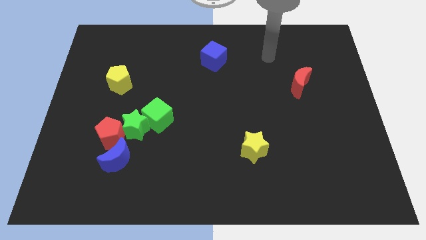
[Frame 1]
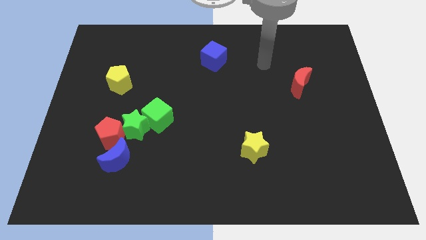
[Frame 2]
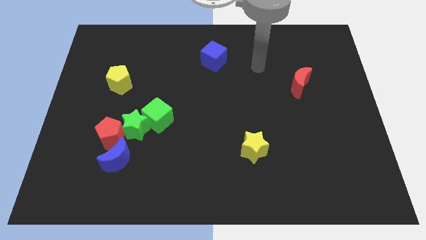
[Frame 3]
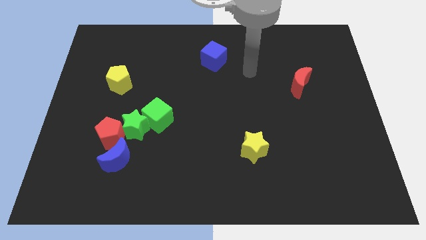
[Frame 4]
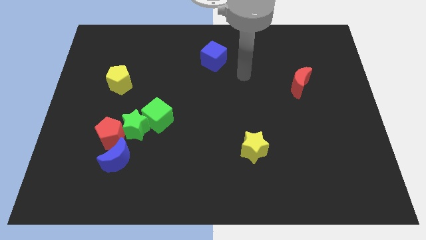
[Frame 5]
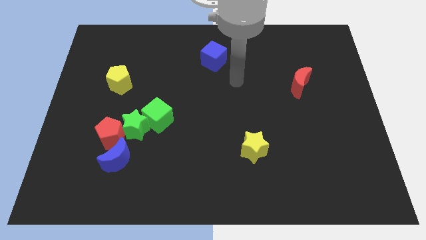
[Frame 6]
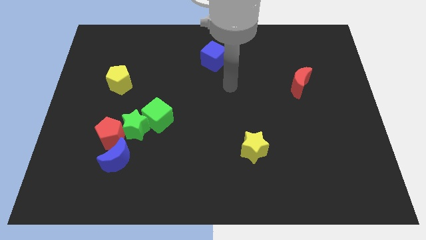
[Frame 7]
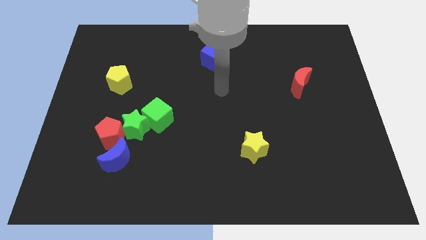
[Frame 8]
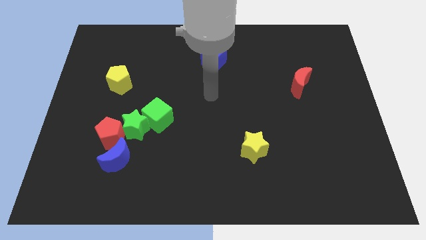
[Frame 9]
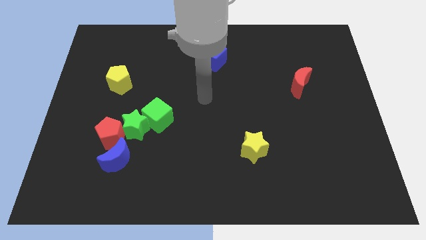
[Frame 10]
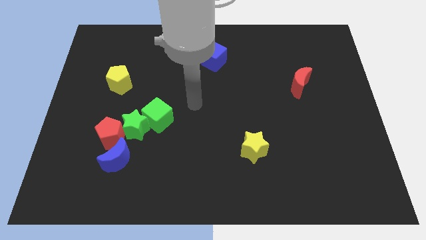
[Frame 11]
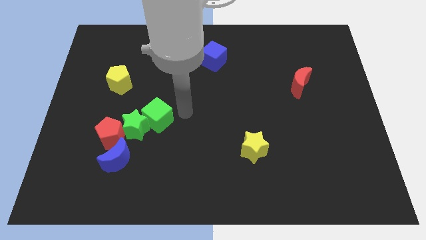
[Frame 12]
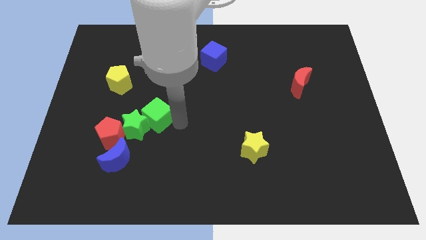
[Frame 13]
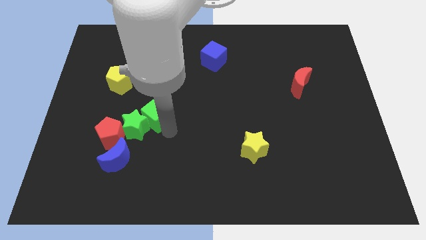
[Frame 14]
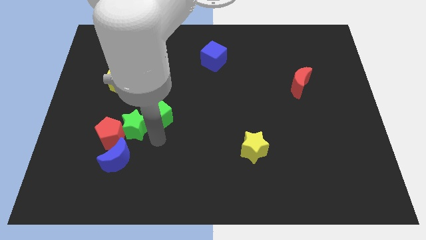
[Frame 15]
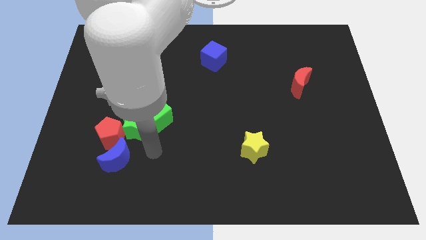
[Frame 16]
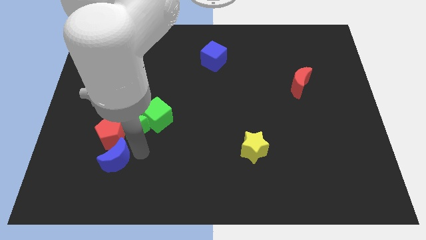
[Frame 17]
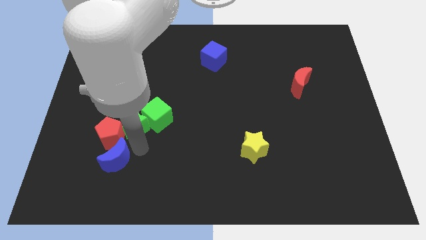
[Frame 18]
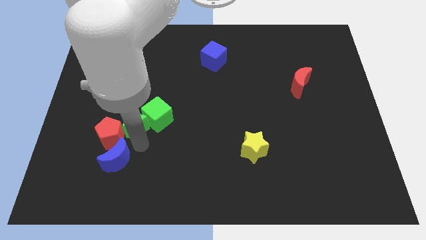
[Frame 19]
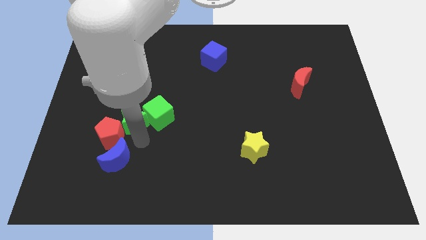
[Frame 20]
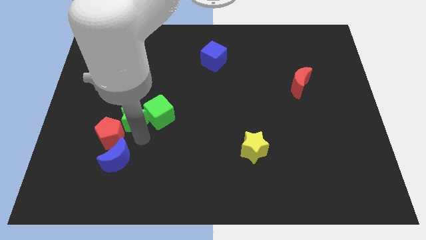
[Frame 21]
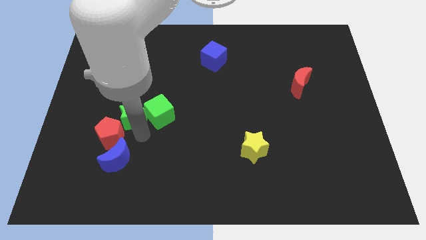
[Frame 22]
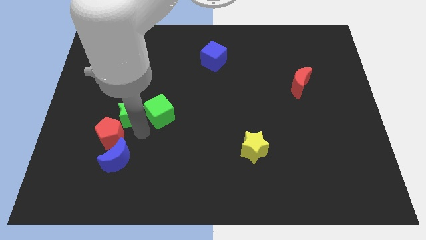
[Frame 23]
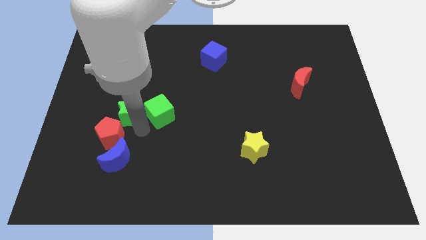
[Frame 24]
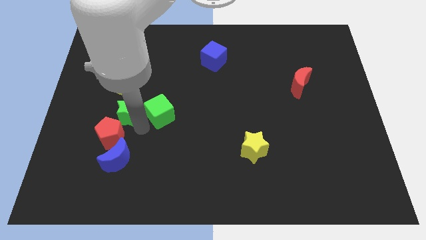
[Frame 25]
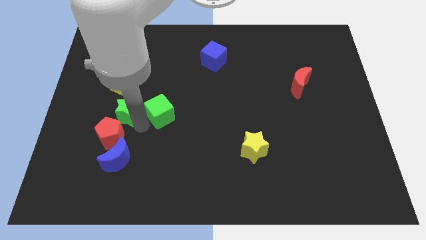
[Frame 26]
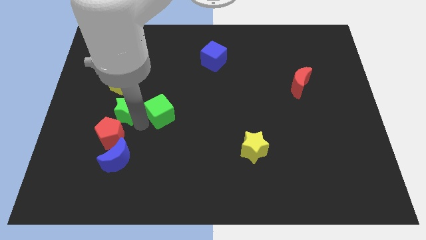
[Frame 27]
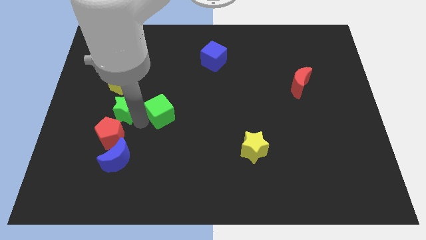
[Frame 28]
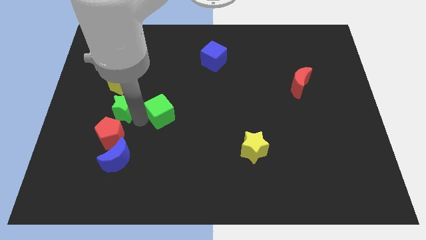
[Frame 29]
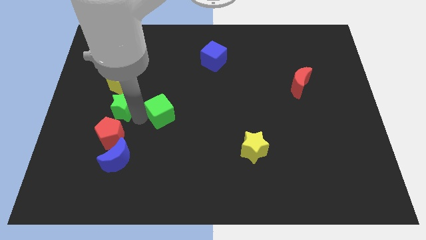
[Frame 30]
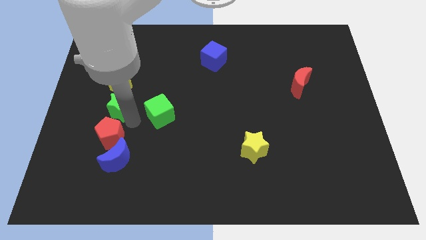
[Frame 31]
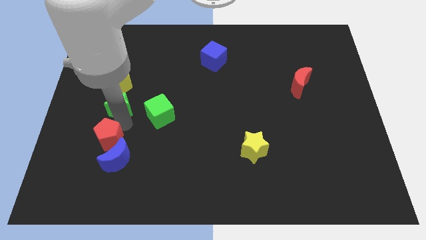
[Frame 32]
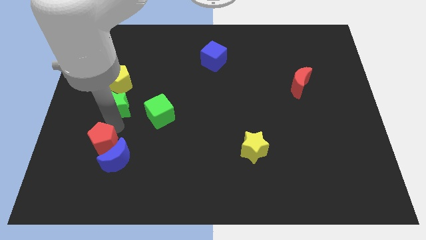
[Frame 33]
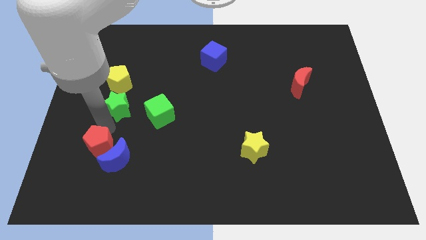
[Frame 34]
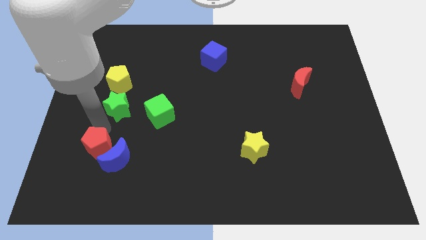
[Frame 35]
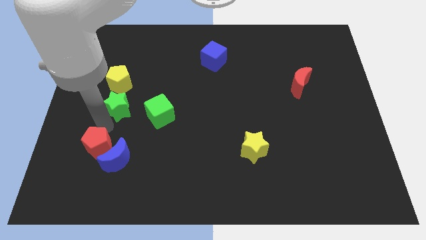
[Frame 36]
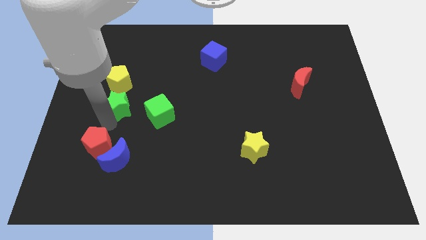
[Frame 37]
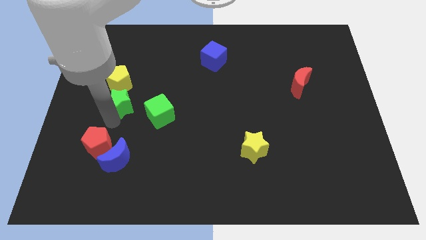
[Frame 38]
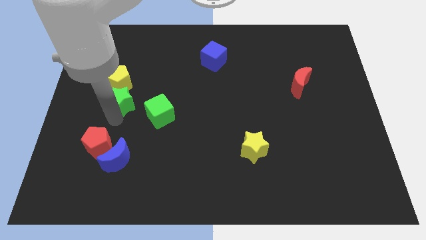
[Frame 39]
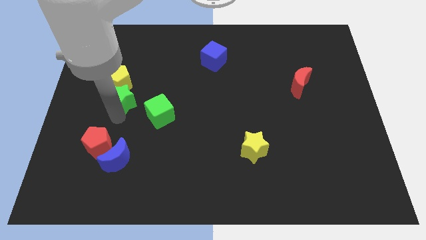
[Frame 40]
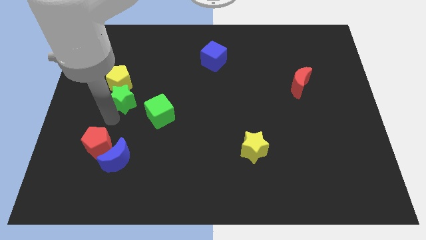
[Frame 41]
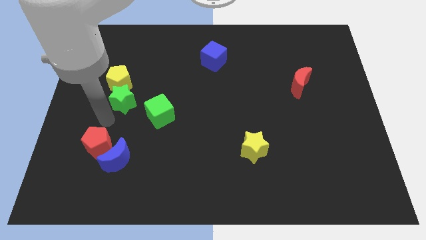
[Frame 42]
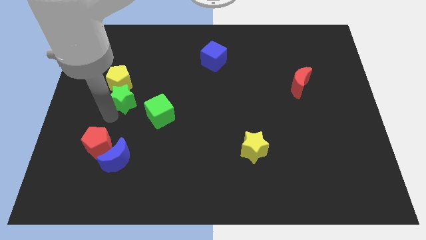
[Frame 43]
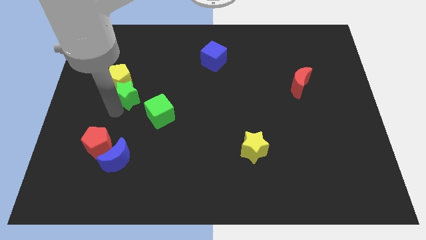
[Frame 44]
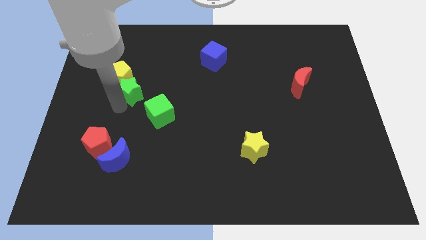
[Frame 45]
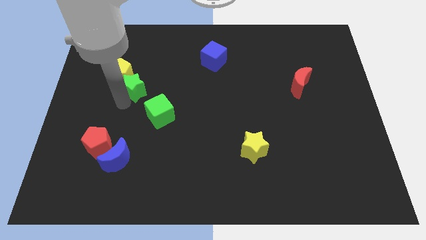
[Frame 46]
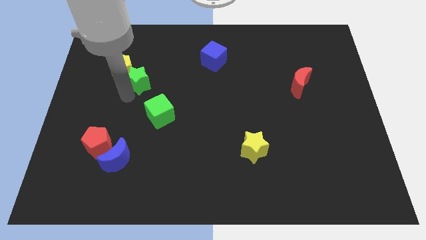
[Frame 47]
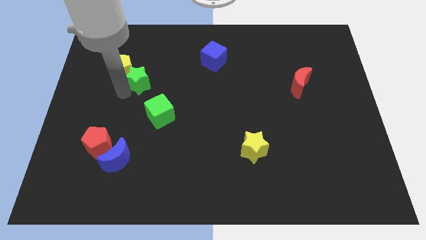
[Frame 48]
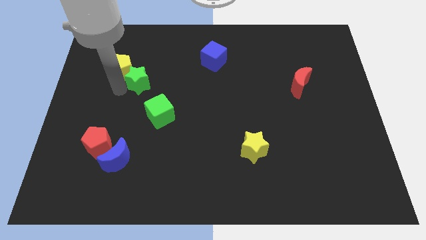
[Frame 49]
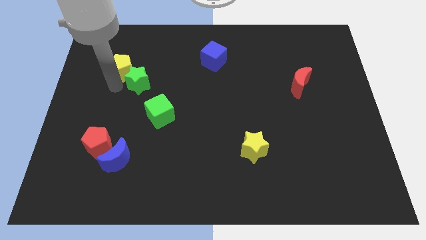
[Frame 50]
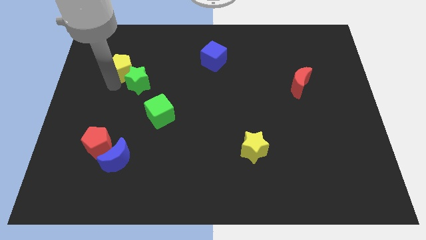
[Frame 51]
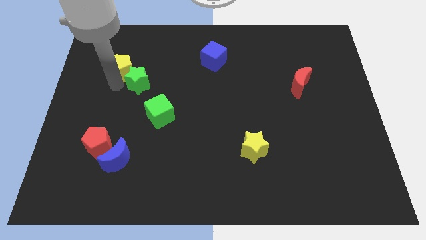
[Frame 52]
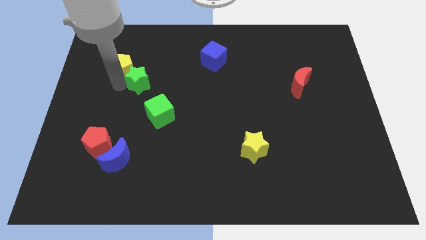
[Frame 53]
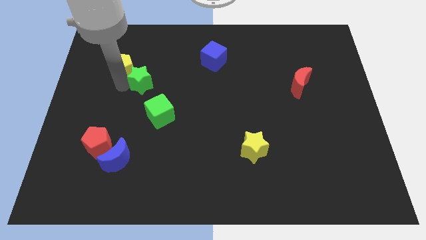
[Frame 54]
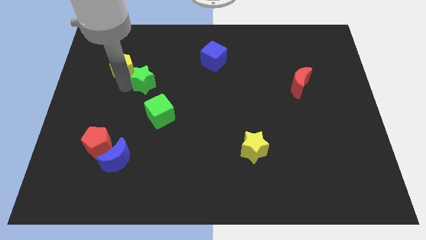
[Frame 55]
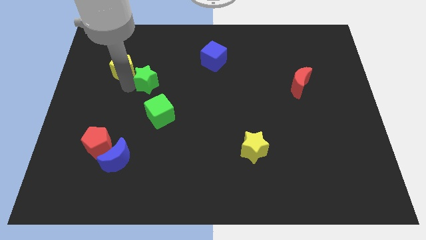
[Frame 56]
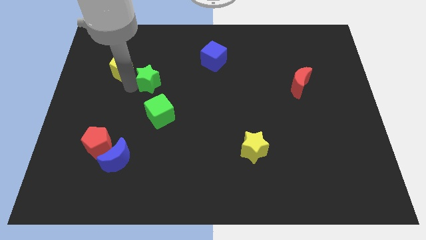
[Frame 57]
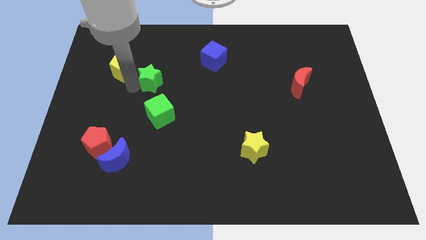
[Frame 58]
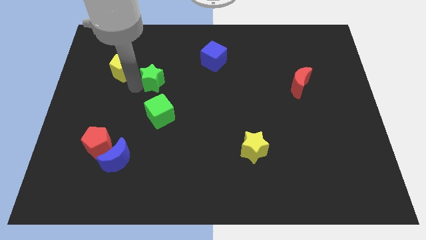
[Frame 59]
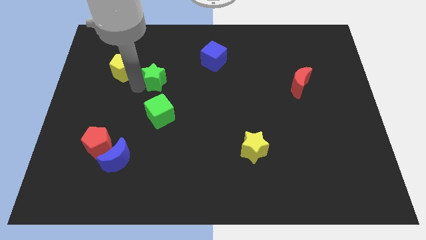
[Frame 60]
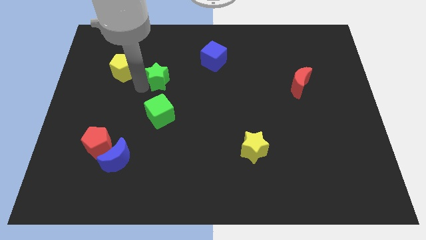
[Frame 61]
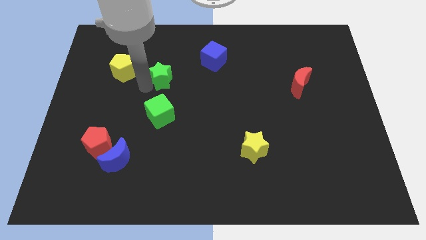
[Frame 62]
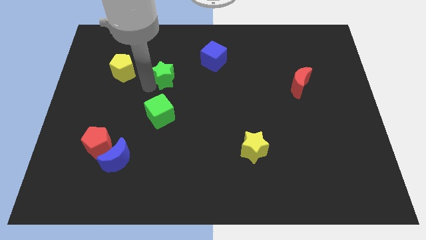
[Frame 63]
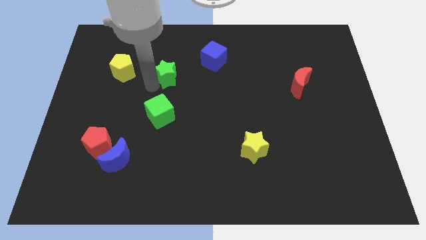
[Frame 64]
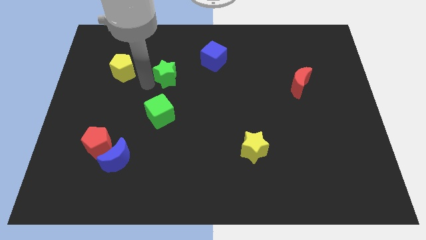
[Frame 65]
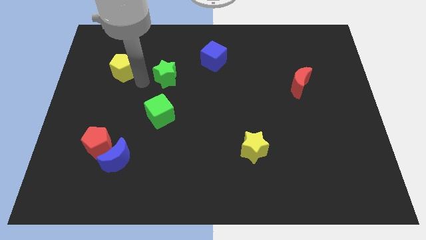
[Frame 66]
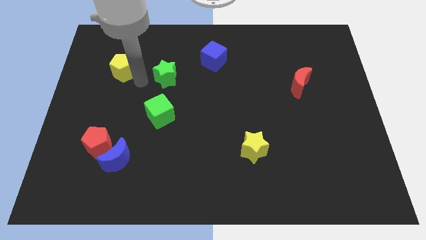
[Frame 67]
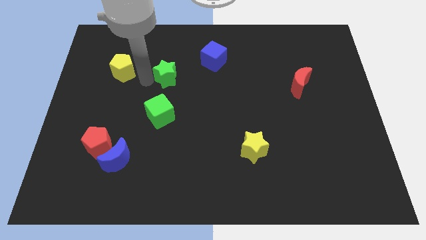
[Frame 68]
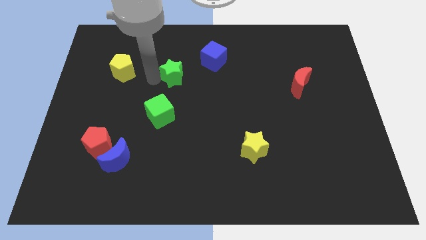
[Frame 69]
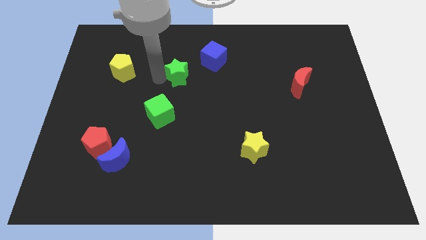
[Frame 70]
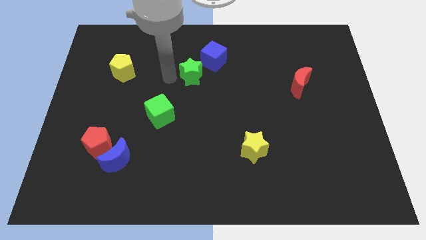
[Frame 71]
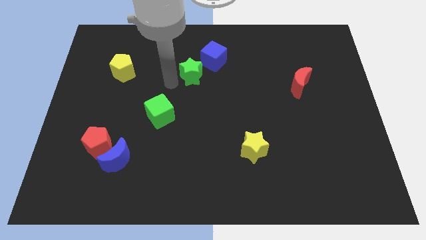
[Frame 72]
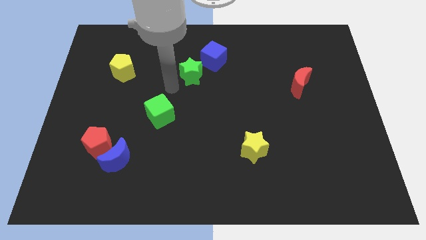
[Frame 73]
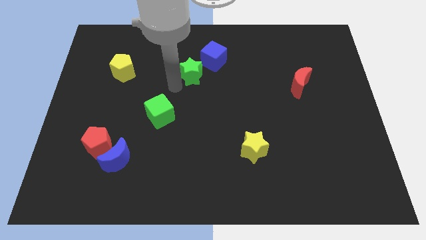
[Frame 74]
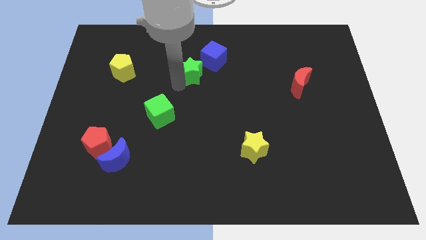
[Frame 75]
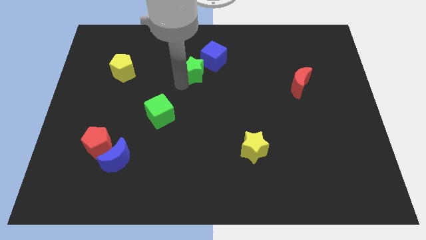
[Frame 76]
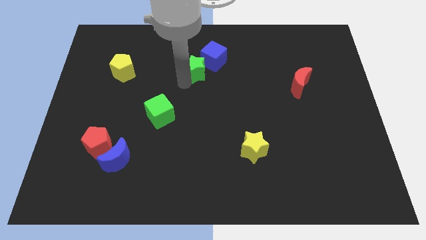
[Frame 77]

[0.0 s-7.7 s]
put the green star close to the blue cube
